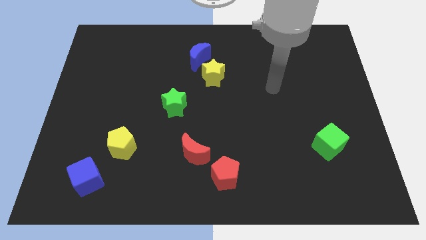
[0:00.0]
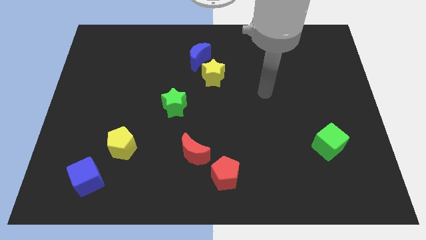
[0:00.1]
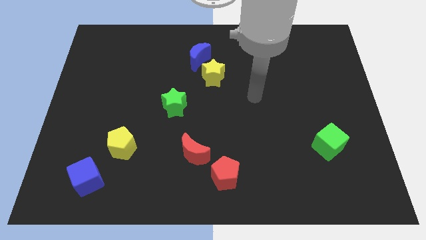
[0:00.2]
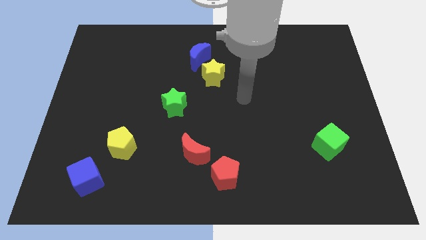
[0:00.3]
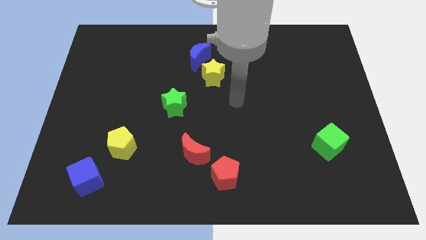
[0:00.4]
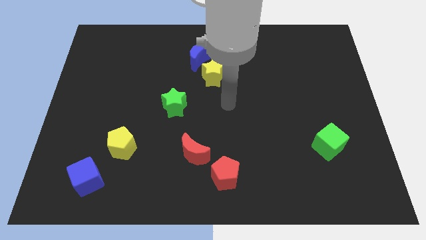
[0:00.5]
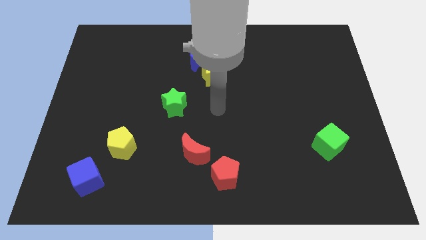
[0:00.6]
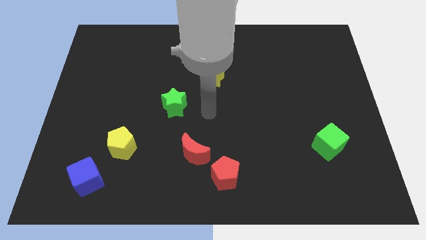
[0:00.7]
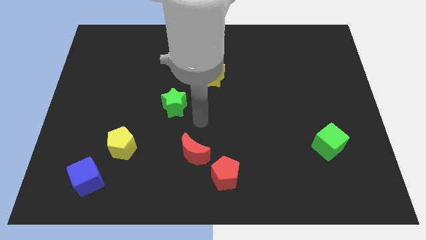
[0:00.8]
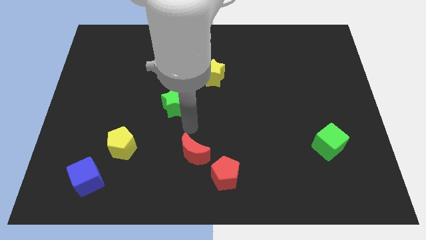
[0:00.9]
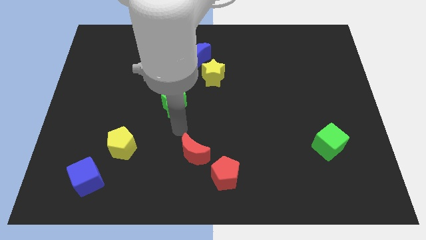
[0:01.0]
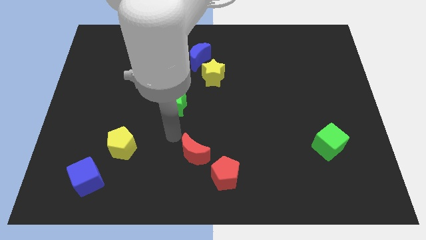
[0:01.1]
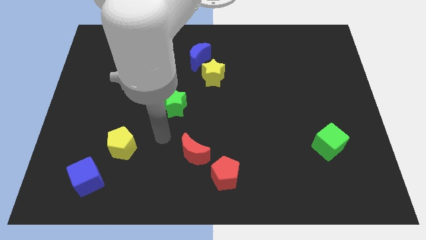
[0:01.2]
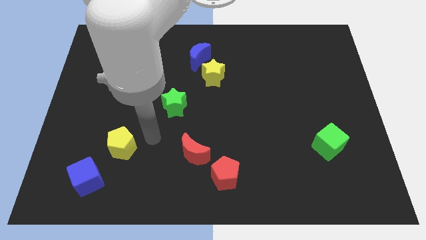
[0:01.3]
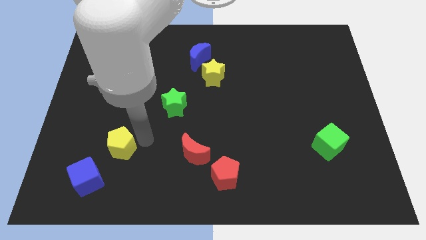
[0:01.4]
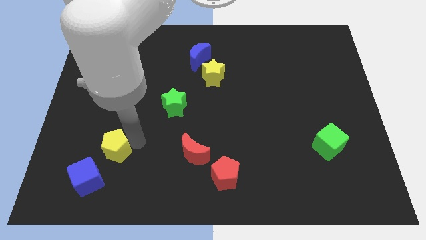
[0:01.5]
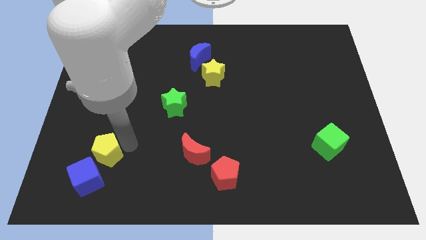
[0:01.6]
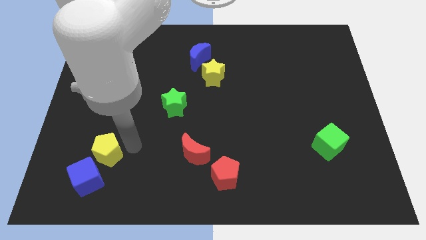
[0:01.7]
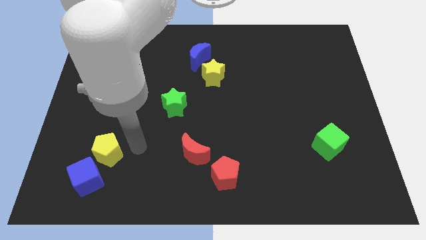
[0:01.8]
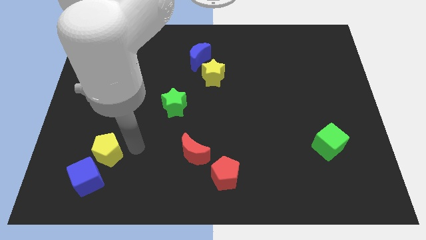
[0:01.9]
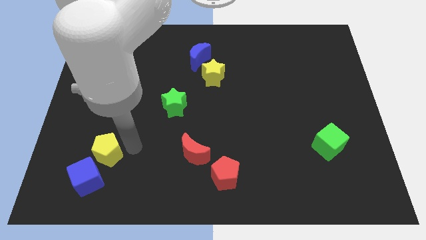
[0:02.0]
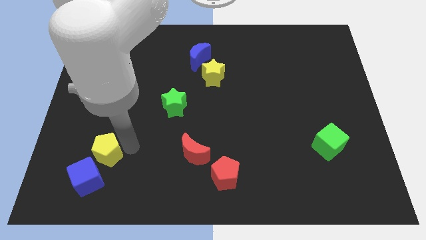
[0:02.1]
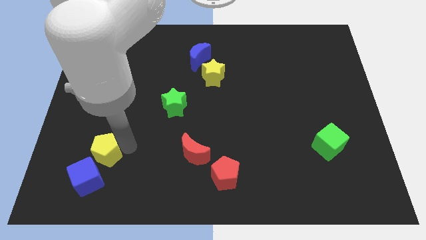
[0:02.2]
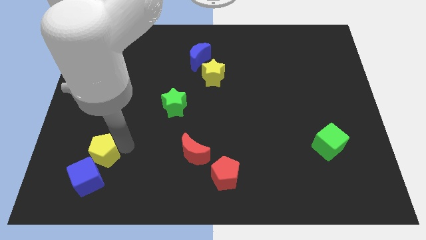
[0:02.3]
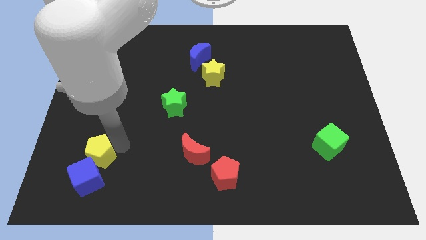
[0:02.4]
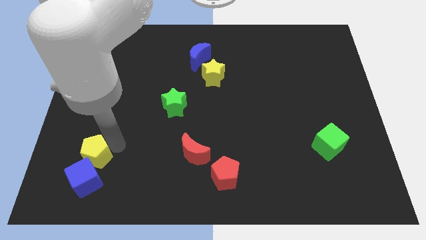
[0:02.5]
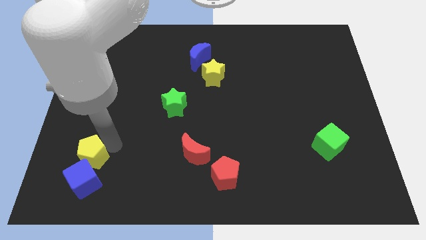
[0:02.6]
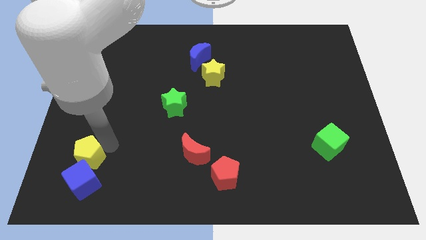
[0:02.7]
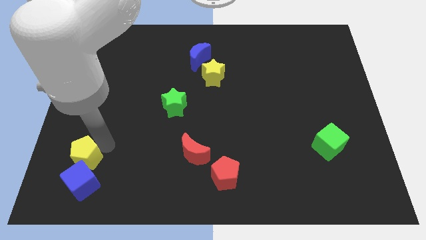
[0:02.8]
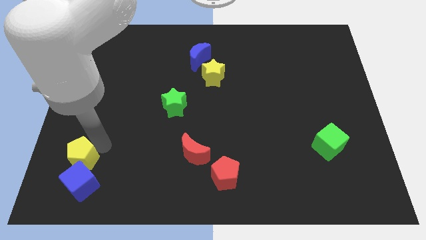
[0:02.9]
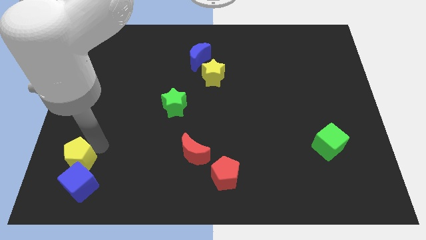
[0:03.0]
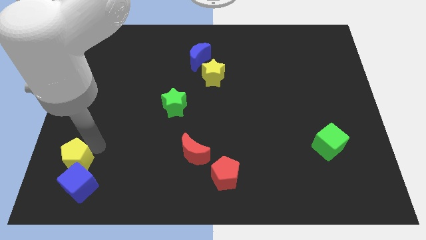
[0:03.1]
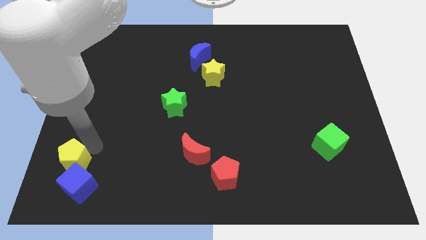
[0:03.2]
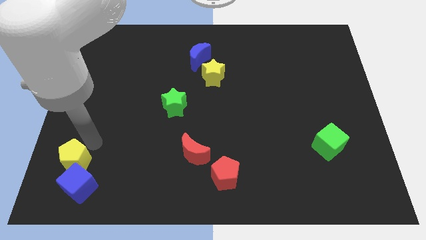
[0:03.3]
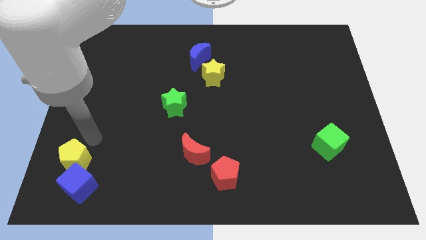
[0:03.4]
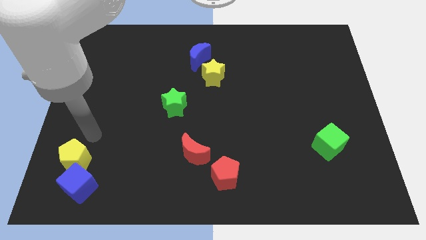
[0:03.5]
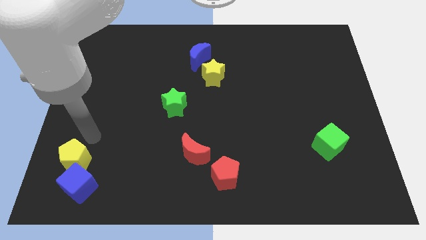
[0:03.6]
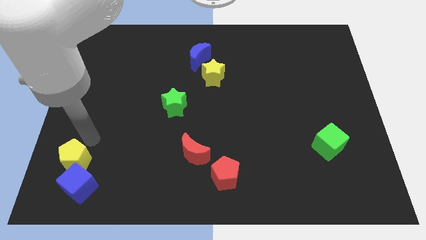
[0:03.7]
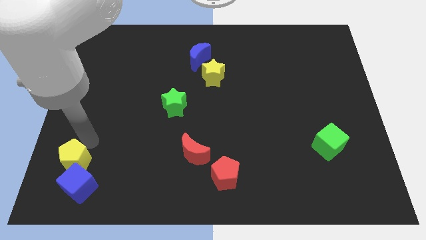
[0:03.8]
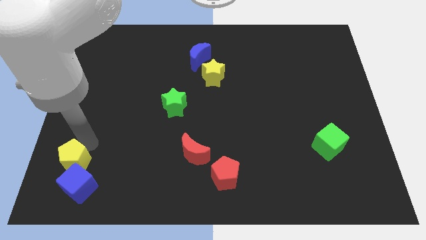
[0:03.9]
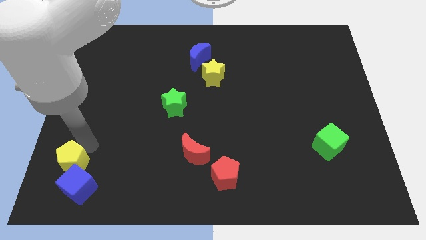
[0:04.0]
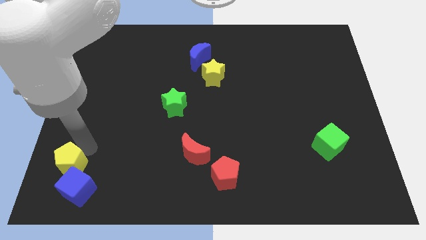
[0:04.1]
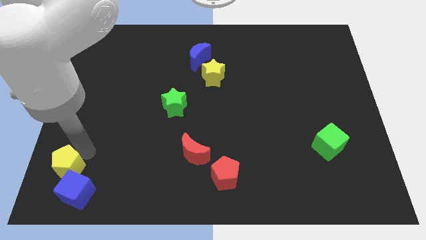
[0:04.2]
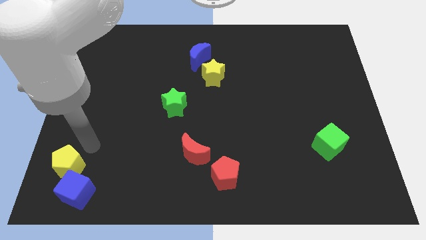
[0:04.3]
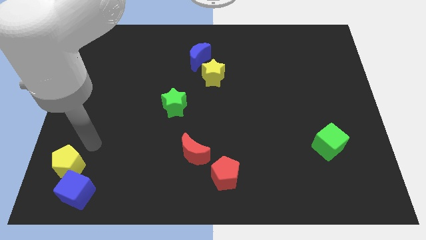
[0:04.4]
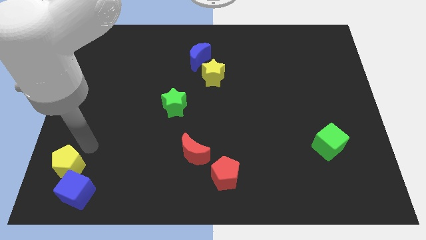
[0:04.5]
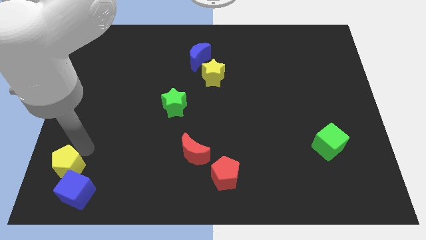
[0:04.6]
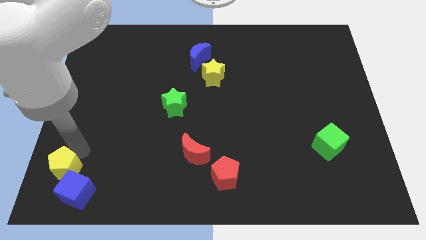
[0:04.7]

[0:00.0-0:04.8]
push the yellow pentagon to the bottom left corner

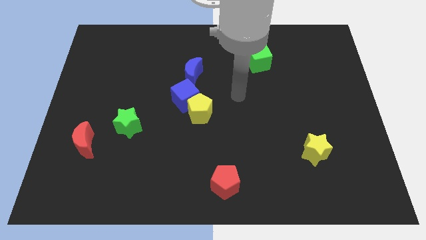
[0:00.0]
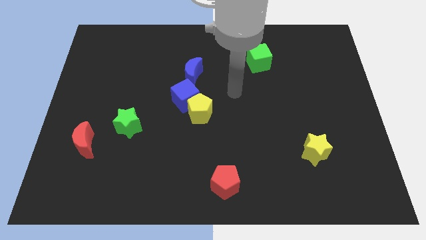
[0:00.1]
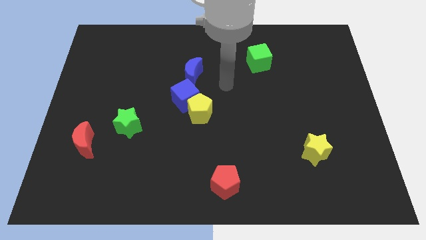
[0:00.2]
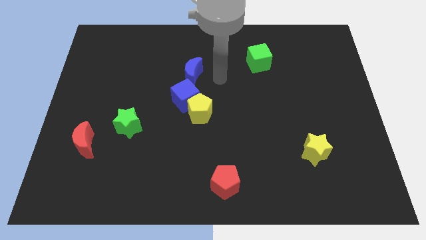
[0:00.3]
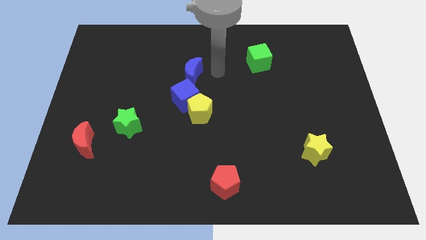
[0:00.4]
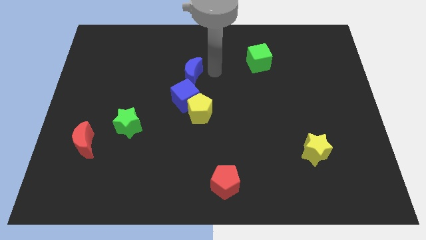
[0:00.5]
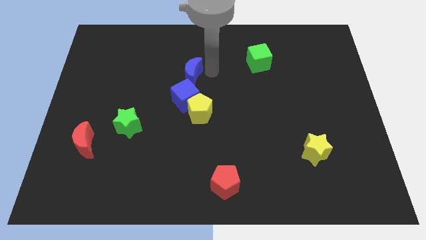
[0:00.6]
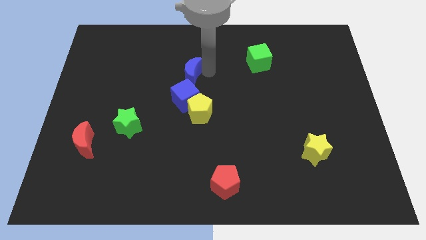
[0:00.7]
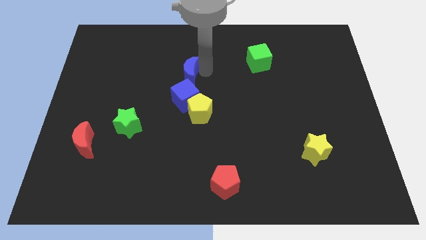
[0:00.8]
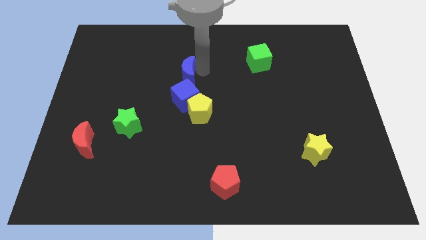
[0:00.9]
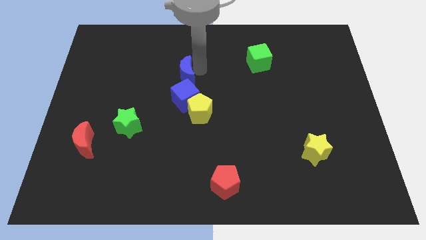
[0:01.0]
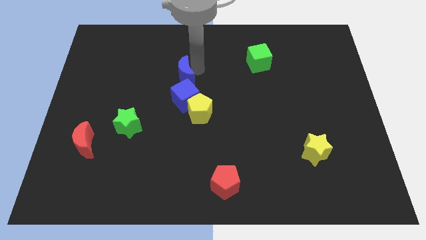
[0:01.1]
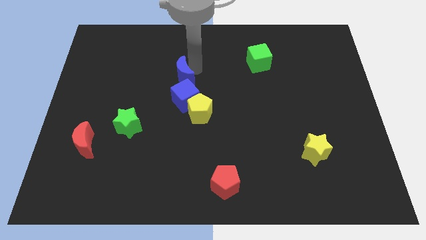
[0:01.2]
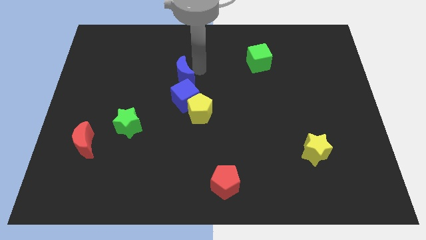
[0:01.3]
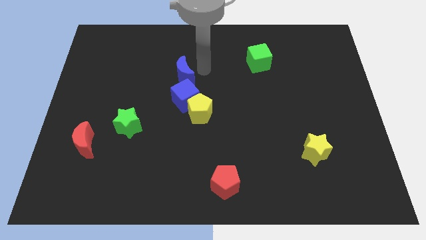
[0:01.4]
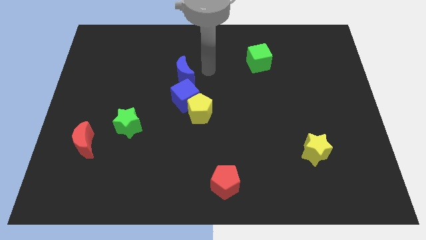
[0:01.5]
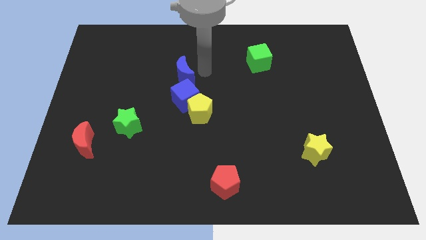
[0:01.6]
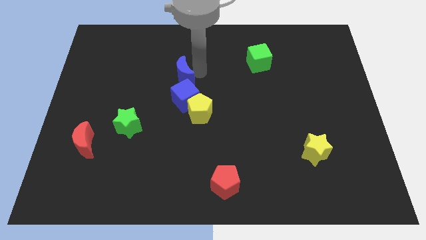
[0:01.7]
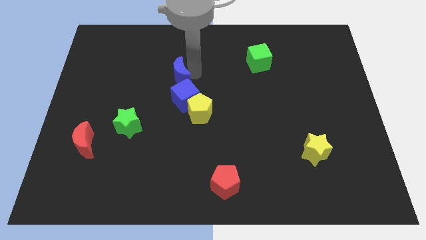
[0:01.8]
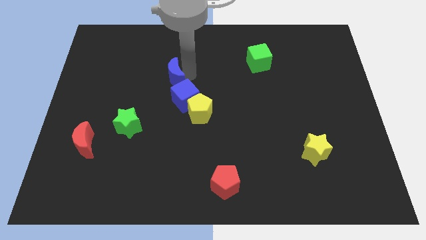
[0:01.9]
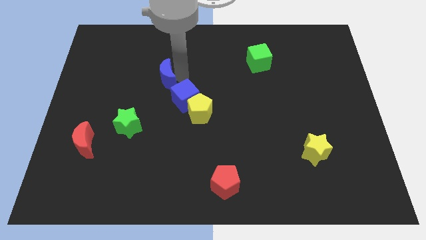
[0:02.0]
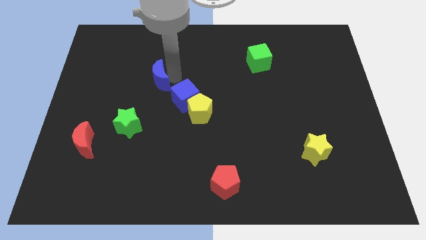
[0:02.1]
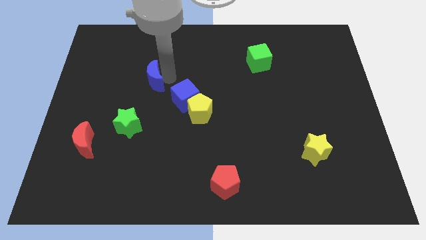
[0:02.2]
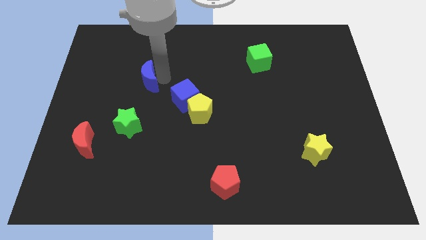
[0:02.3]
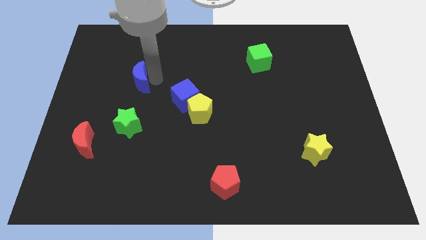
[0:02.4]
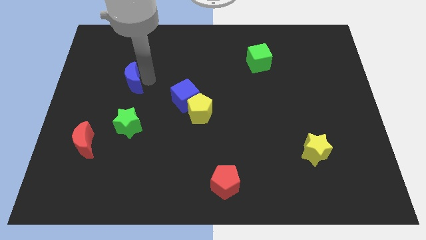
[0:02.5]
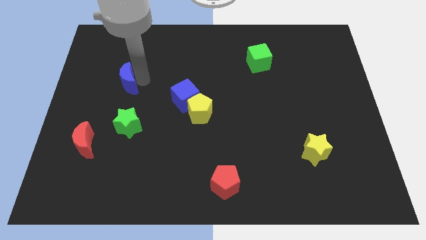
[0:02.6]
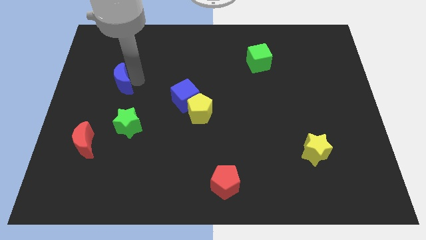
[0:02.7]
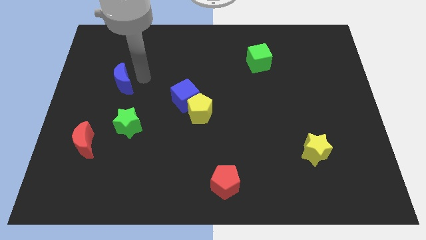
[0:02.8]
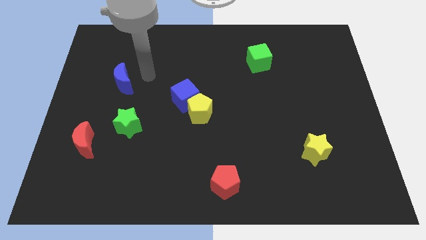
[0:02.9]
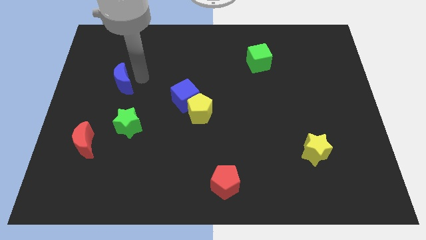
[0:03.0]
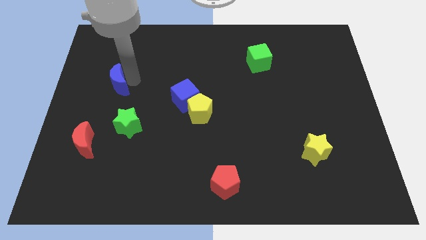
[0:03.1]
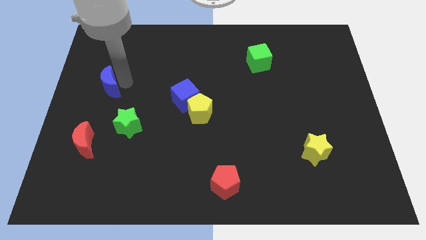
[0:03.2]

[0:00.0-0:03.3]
put the blue moon to the center left
